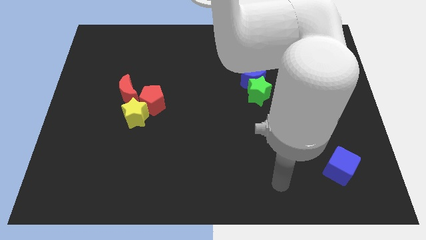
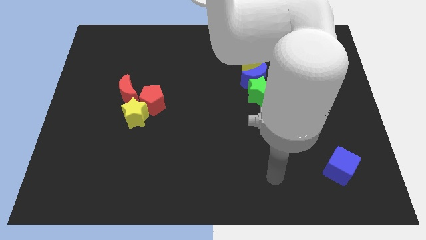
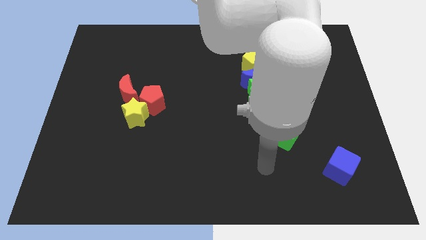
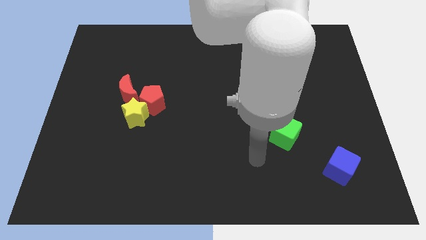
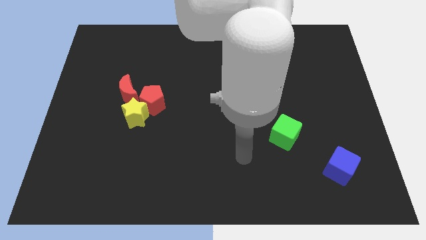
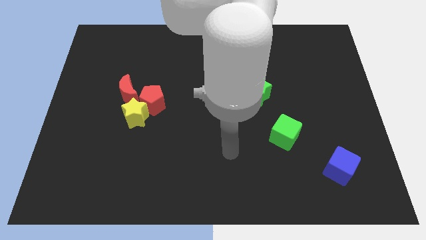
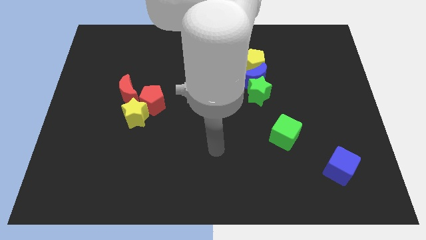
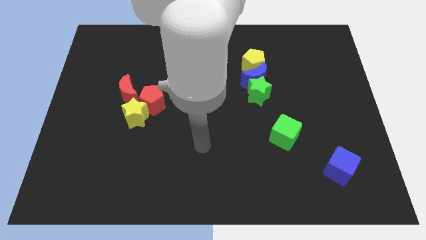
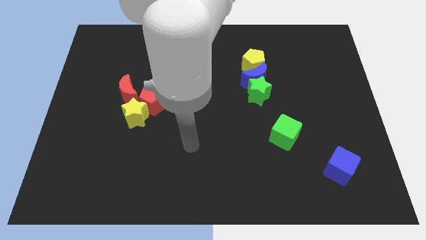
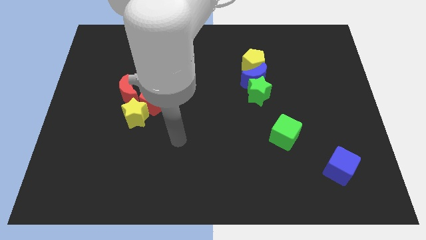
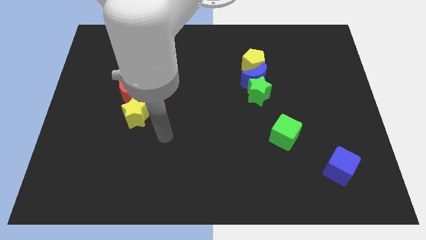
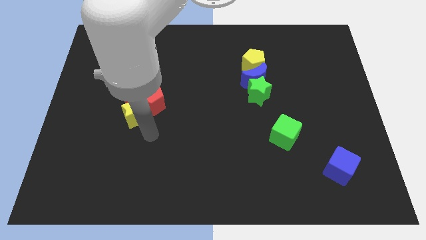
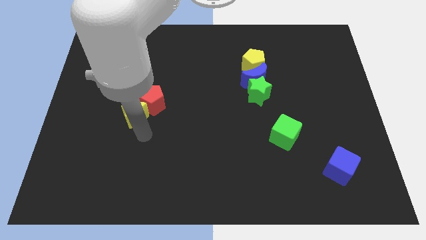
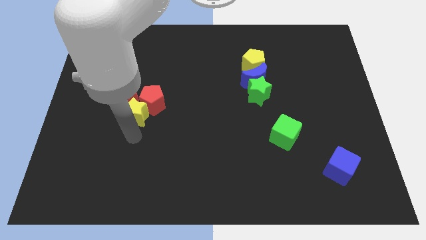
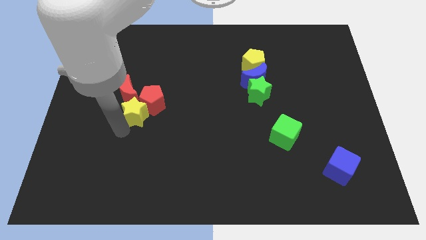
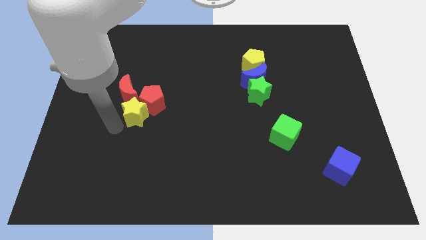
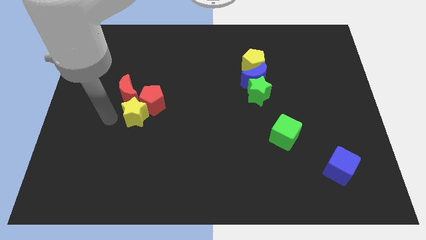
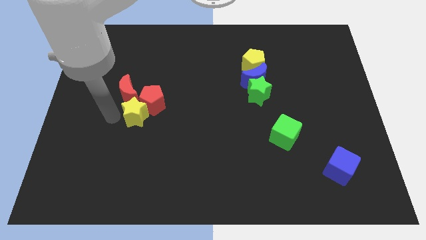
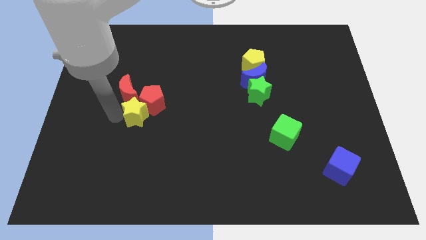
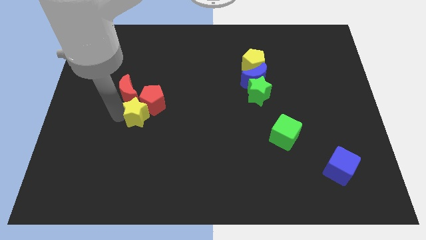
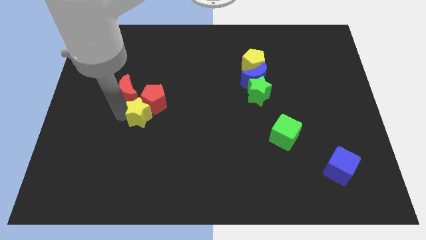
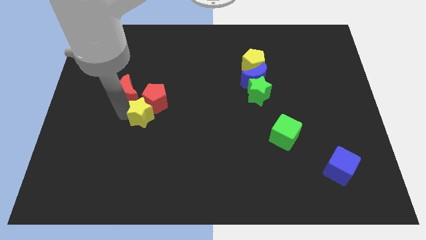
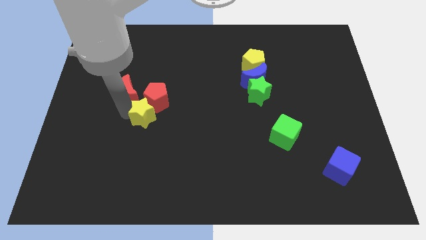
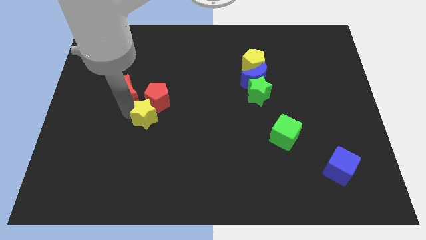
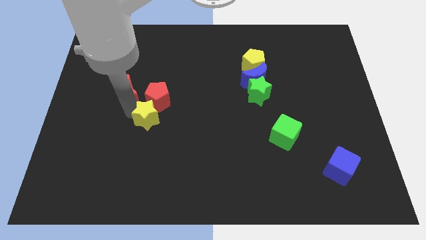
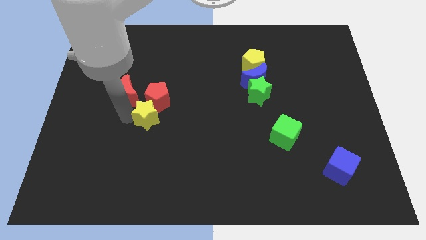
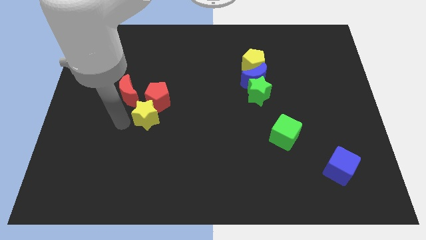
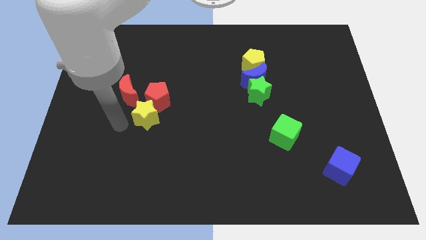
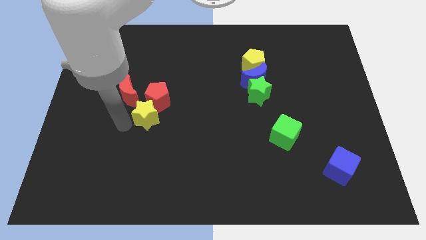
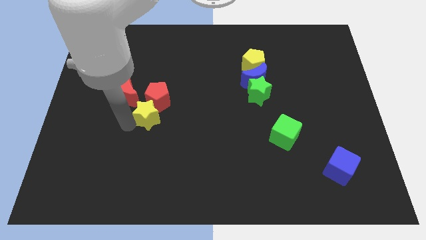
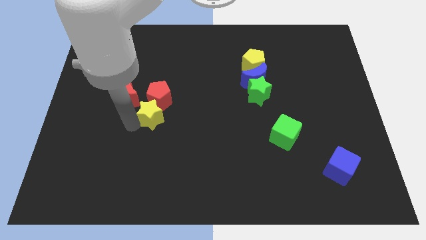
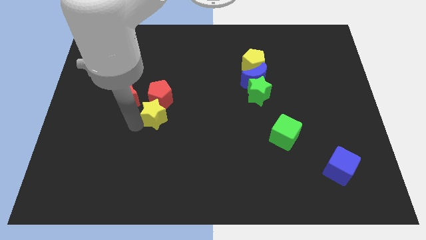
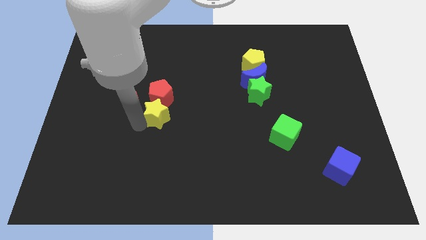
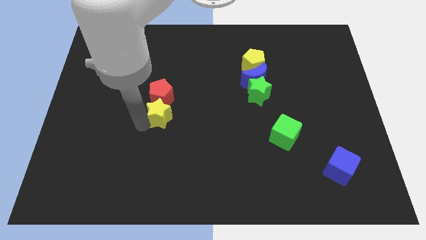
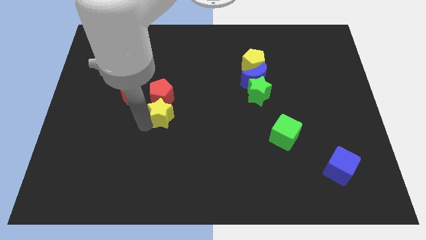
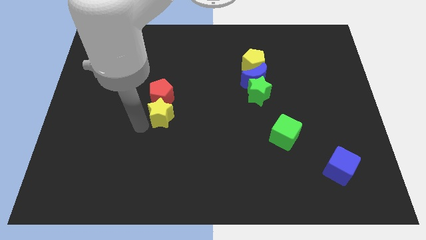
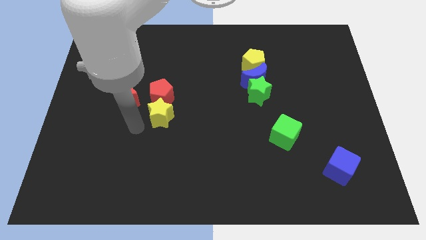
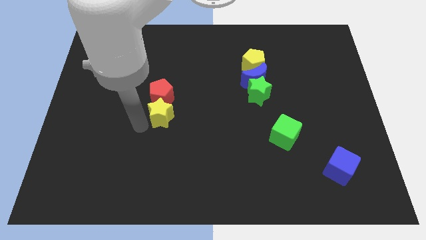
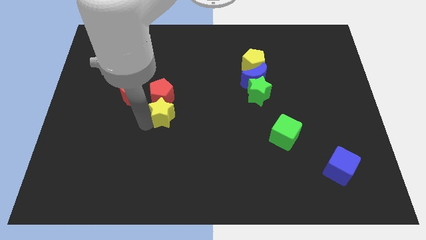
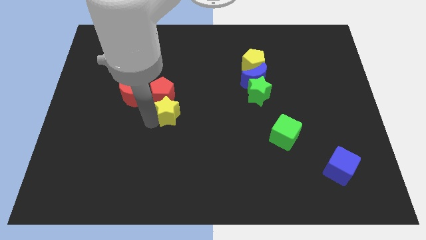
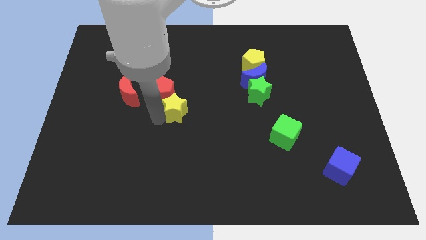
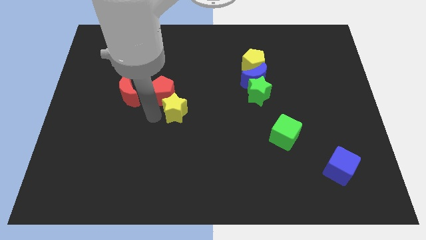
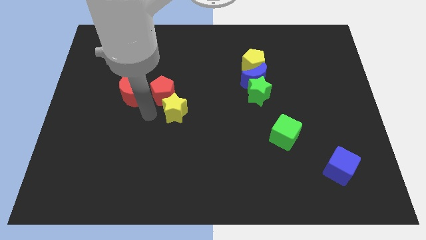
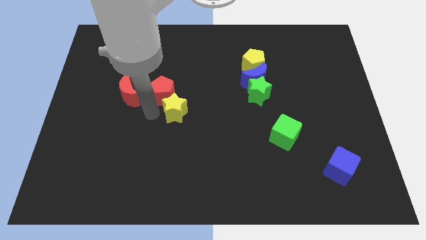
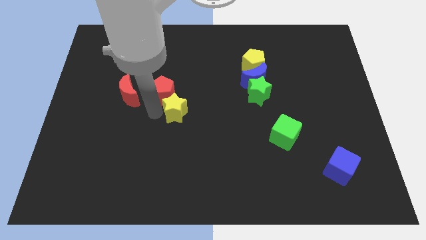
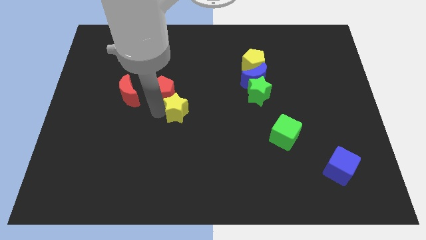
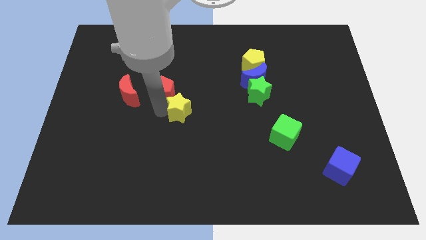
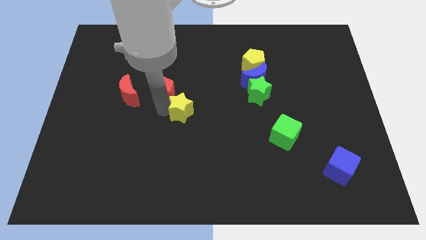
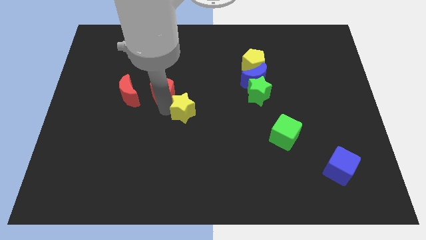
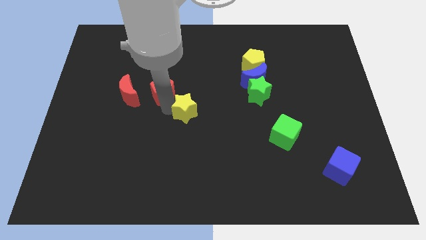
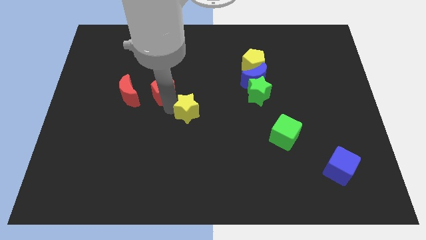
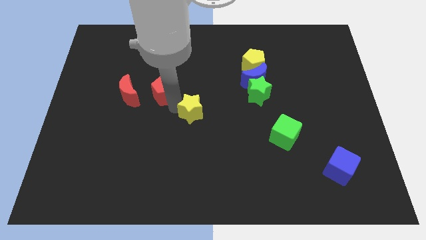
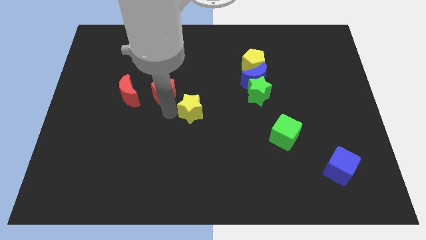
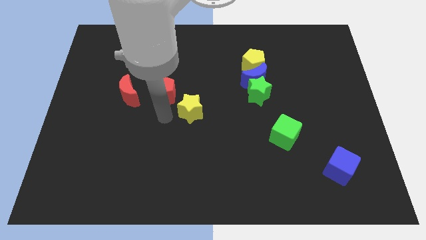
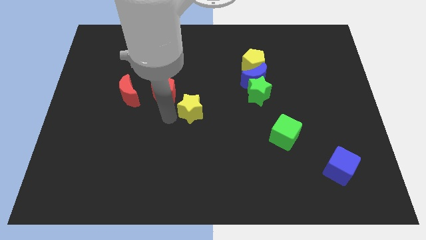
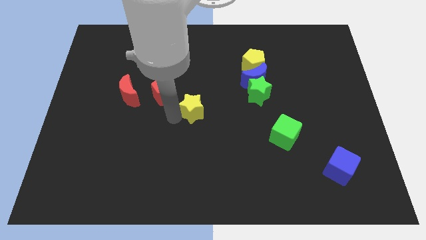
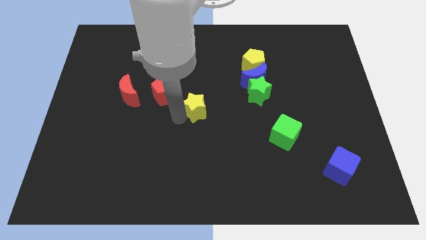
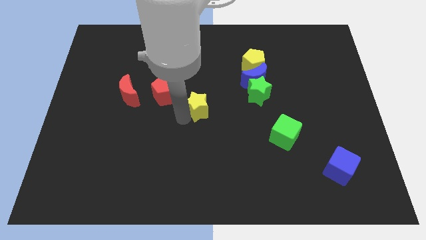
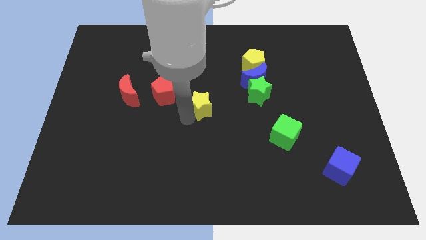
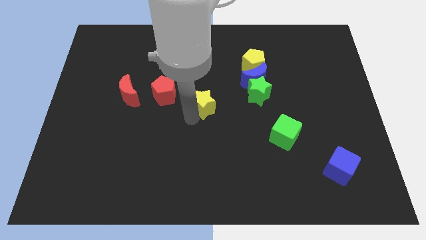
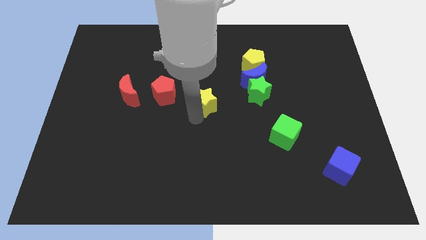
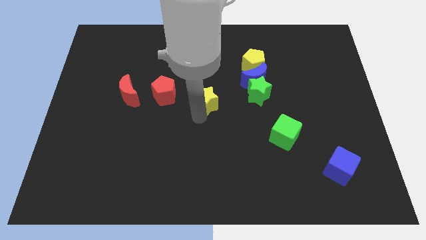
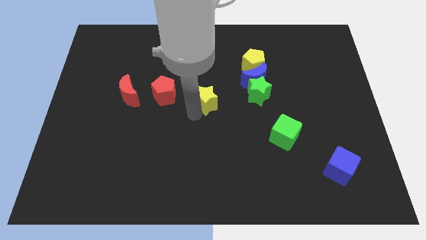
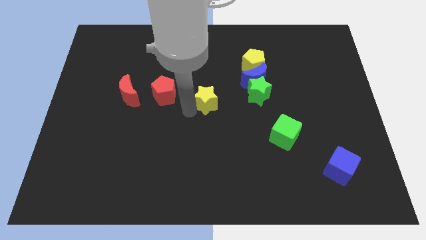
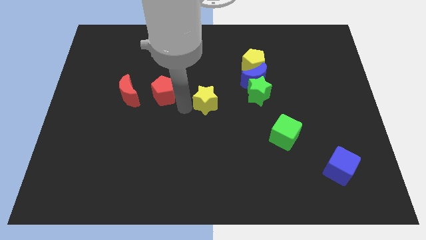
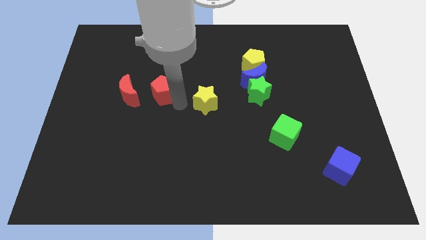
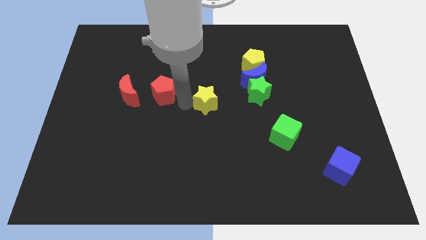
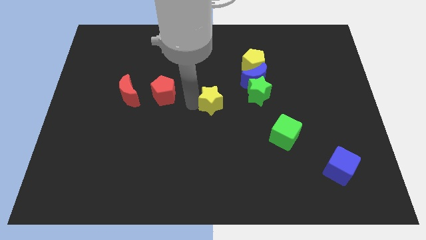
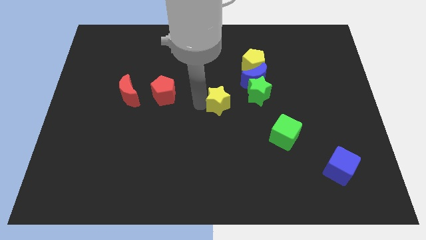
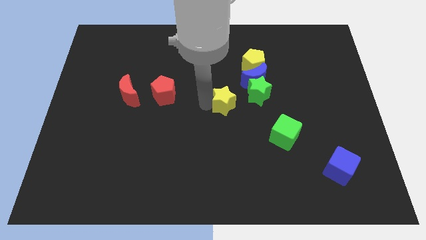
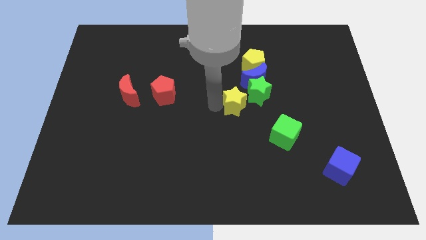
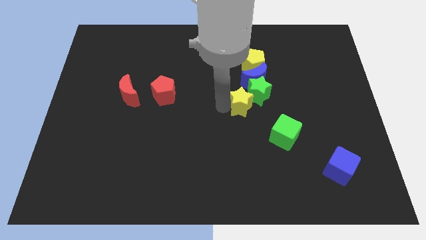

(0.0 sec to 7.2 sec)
push the yellow star close to the green star

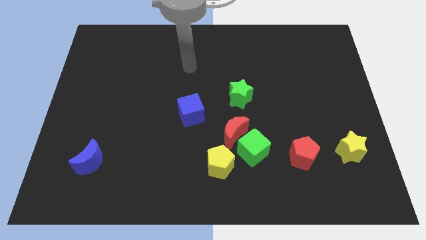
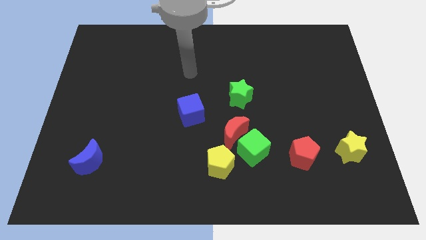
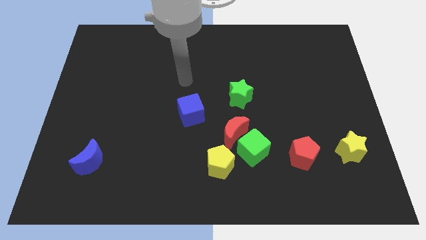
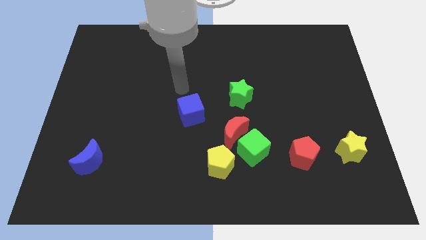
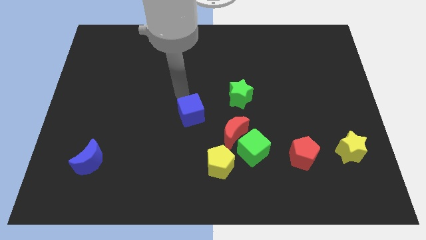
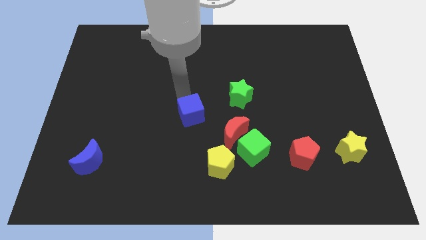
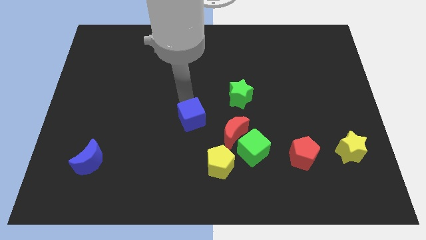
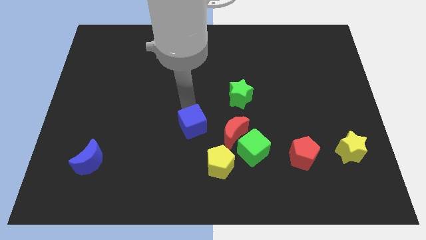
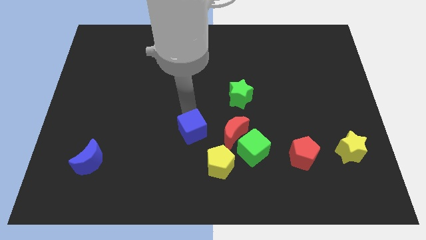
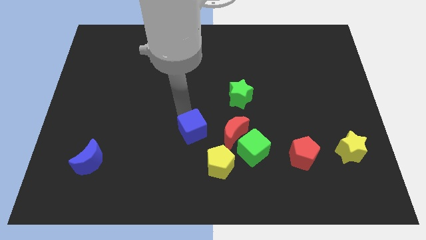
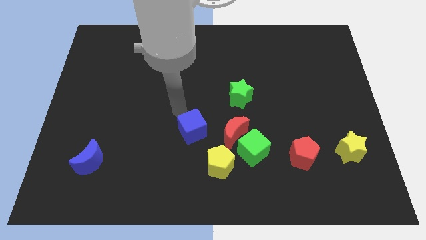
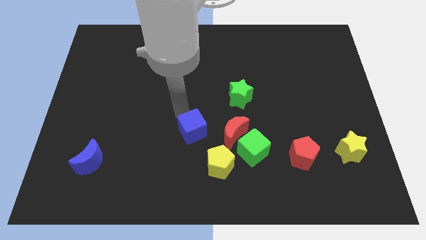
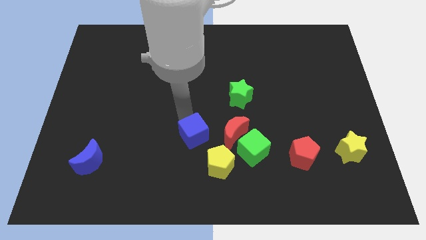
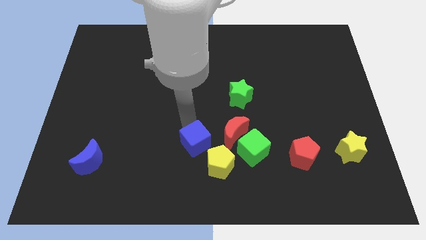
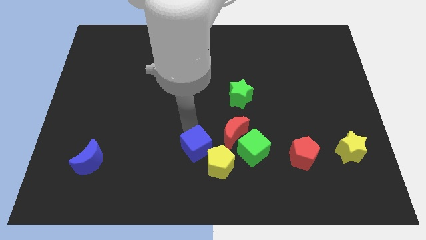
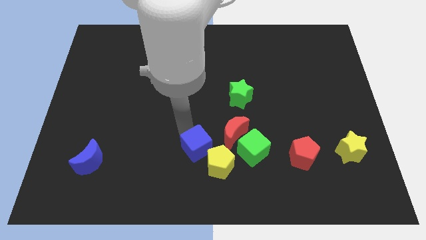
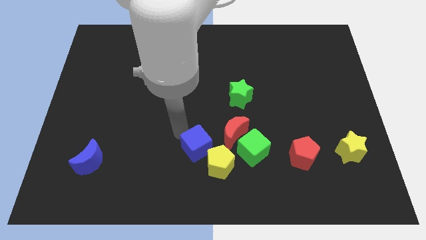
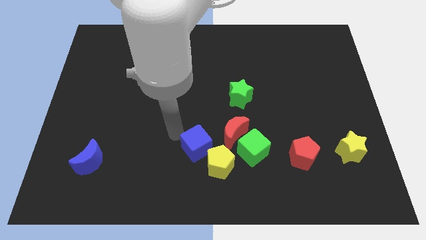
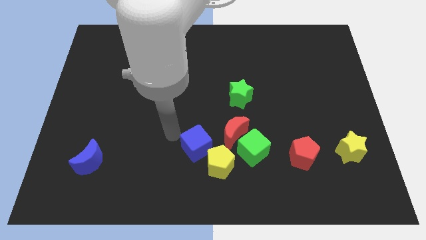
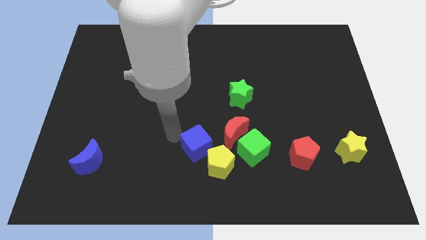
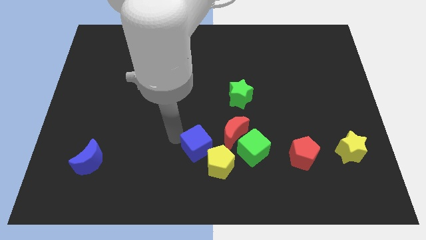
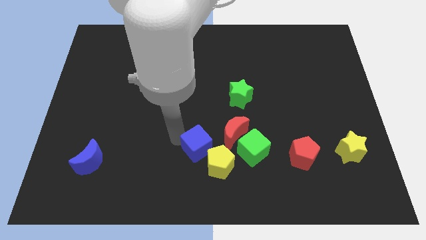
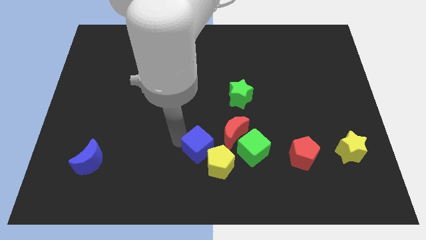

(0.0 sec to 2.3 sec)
move the blue cube towards the yellow pentagon
